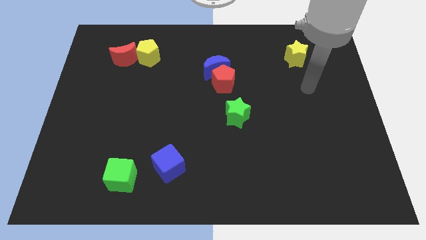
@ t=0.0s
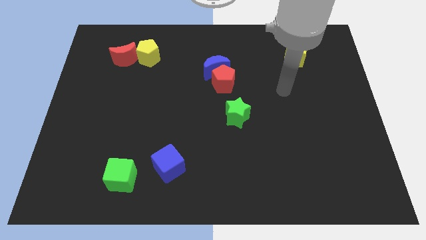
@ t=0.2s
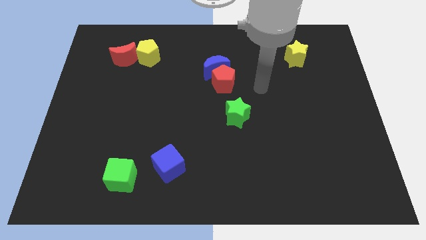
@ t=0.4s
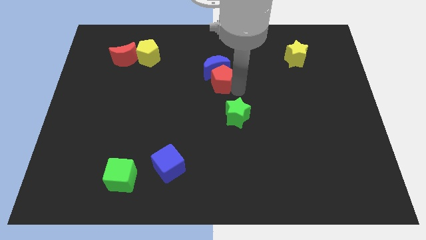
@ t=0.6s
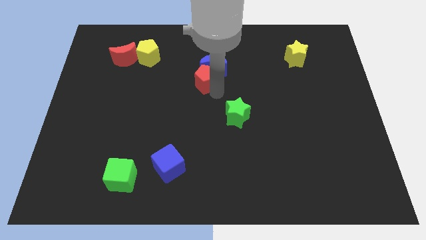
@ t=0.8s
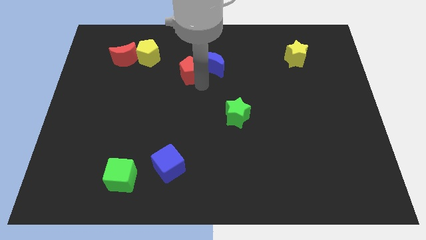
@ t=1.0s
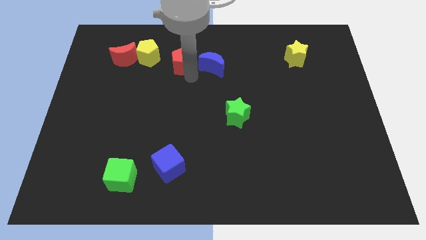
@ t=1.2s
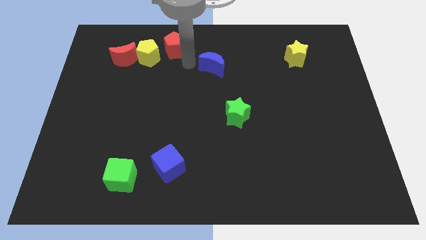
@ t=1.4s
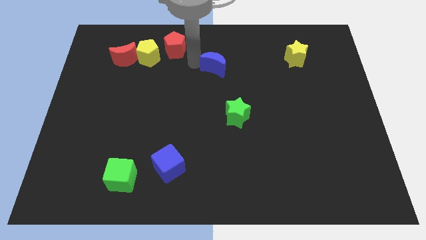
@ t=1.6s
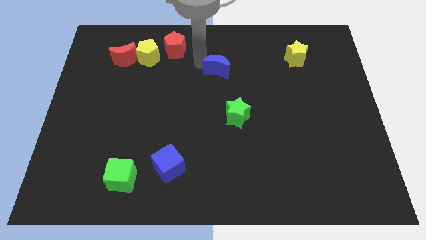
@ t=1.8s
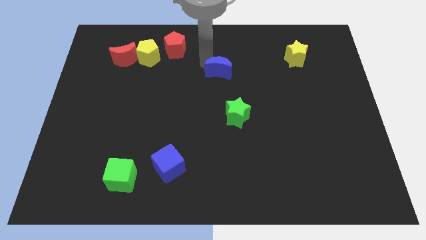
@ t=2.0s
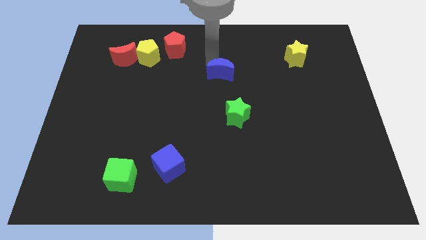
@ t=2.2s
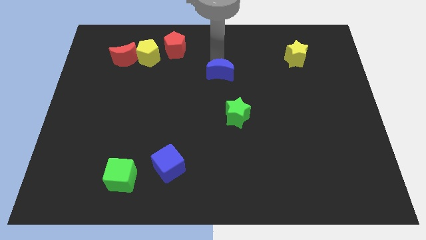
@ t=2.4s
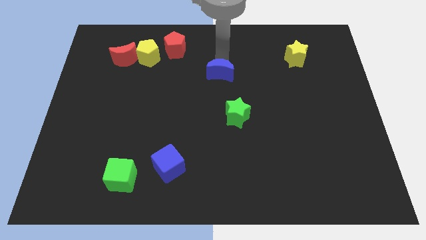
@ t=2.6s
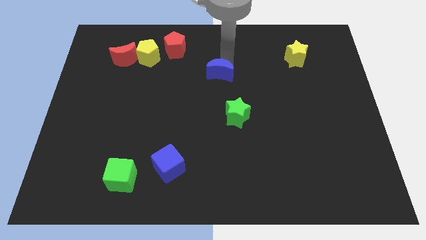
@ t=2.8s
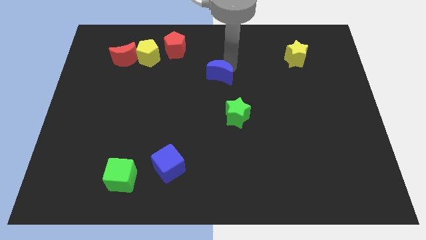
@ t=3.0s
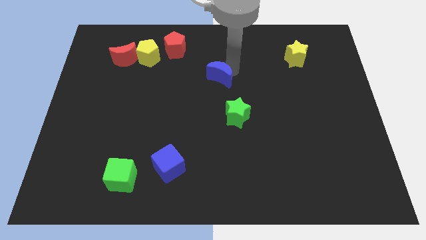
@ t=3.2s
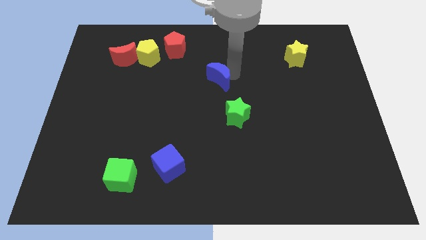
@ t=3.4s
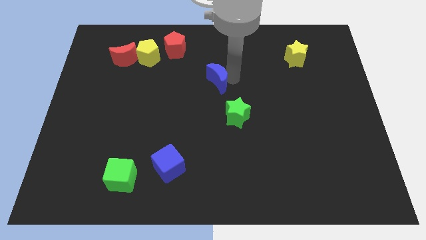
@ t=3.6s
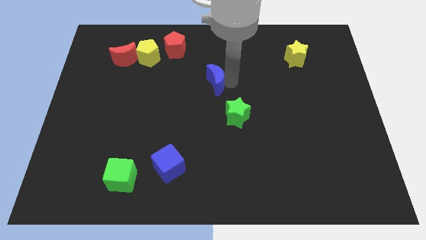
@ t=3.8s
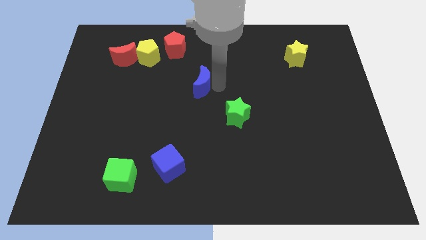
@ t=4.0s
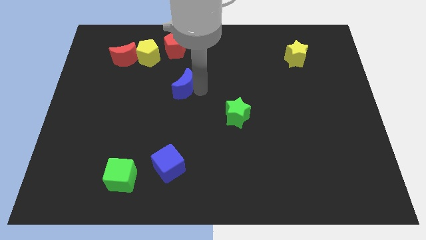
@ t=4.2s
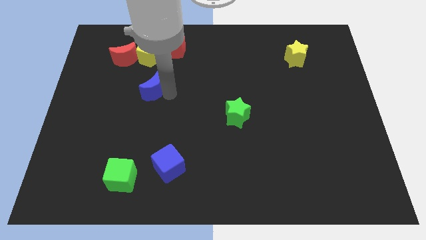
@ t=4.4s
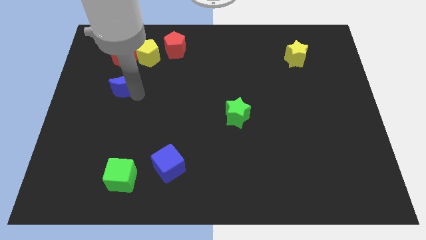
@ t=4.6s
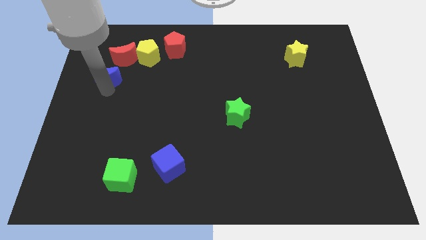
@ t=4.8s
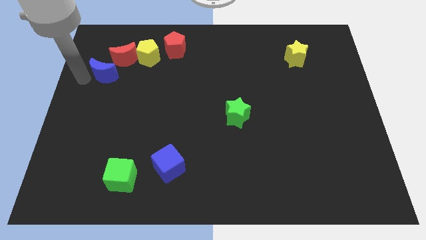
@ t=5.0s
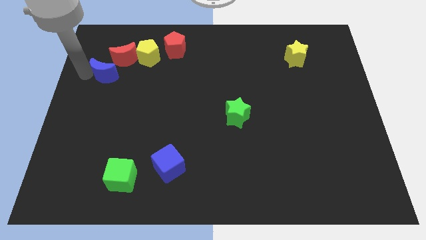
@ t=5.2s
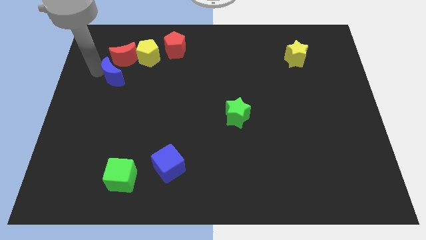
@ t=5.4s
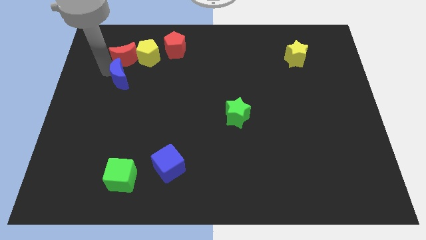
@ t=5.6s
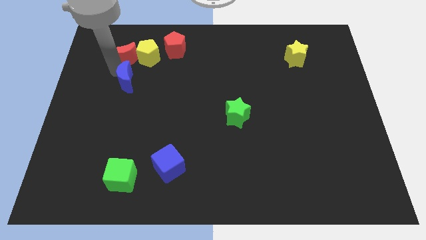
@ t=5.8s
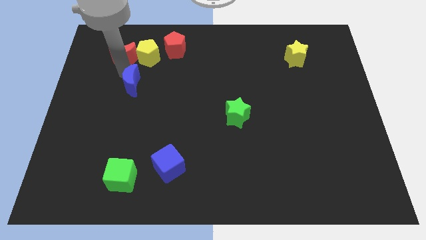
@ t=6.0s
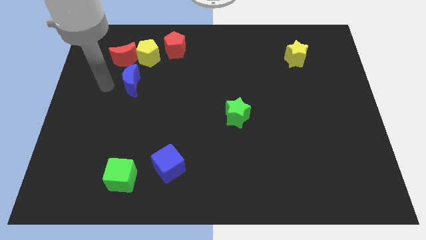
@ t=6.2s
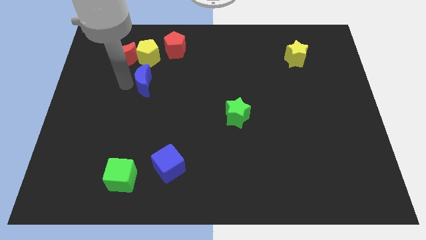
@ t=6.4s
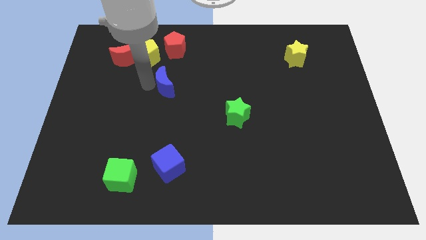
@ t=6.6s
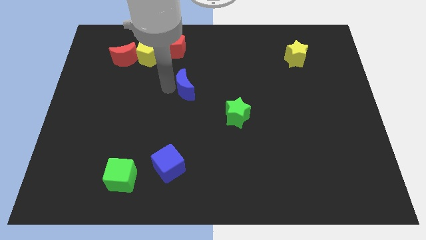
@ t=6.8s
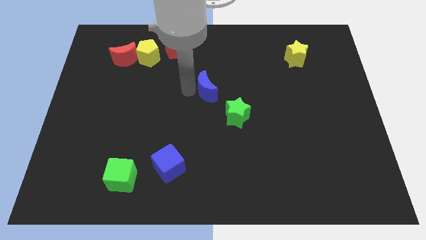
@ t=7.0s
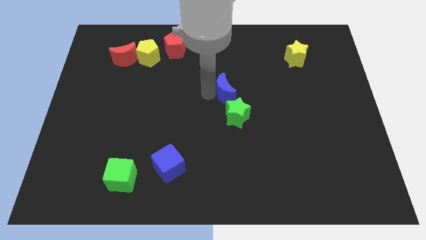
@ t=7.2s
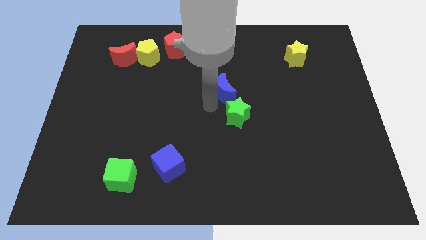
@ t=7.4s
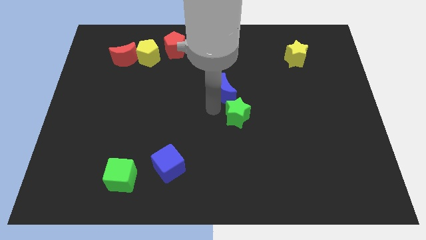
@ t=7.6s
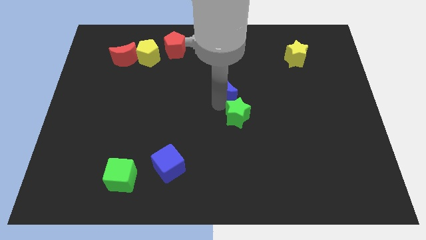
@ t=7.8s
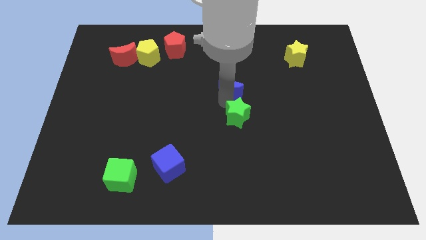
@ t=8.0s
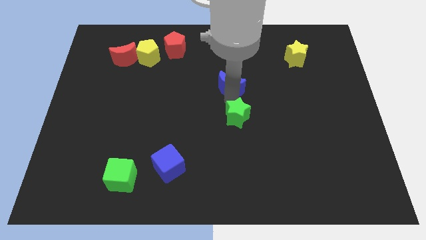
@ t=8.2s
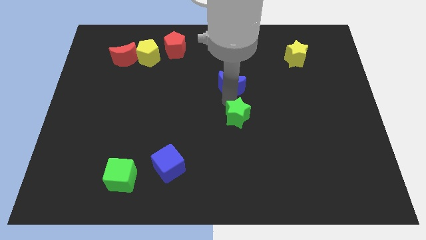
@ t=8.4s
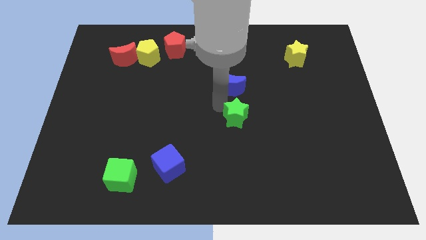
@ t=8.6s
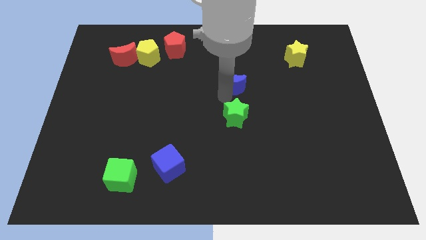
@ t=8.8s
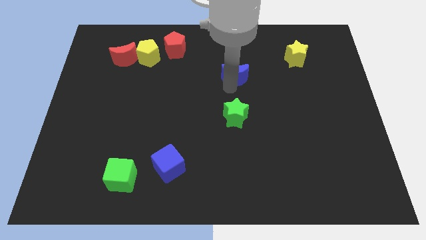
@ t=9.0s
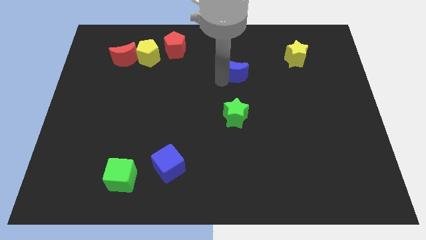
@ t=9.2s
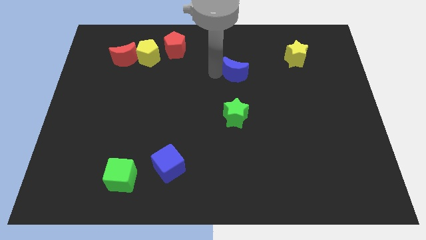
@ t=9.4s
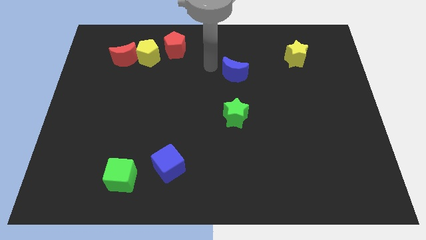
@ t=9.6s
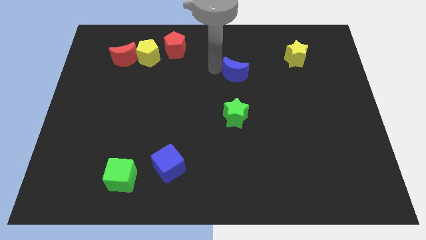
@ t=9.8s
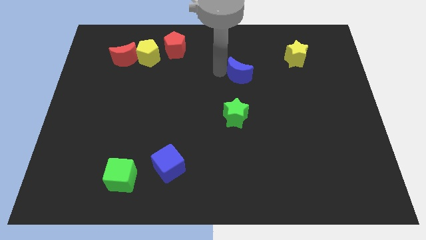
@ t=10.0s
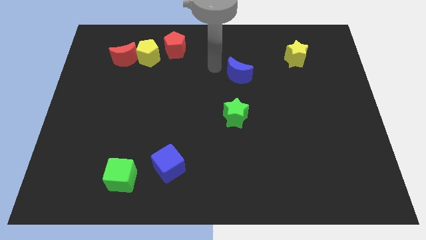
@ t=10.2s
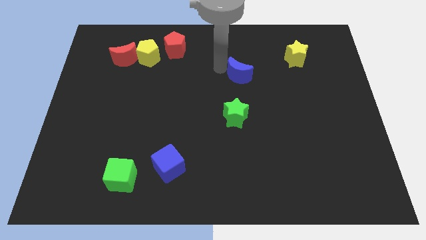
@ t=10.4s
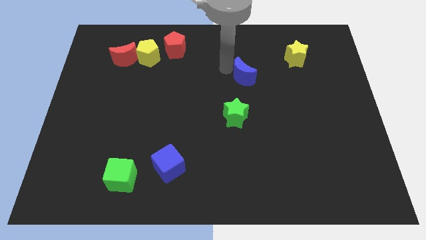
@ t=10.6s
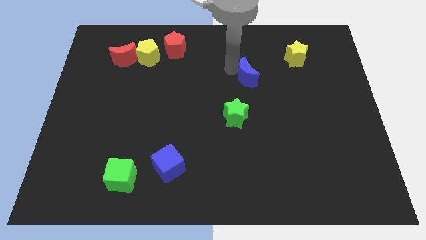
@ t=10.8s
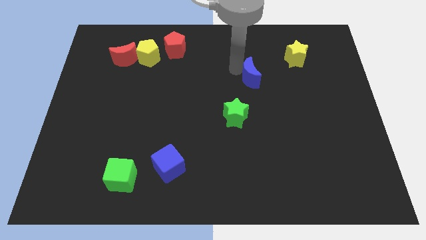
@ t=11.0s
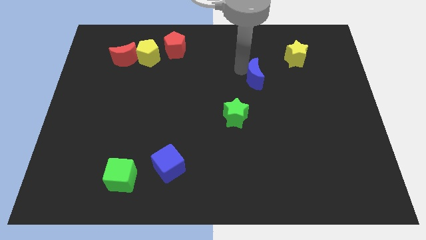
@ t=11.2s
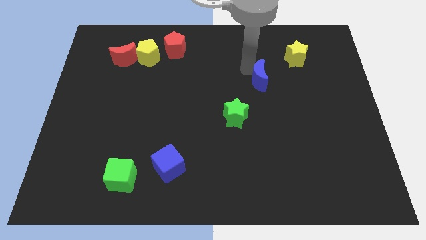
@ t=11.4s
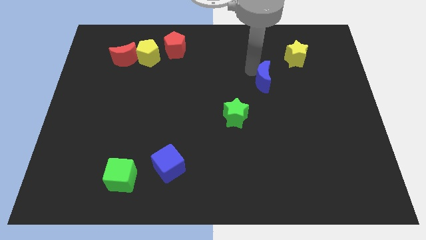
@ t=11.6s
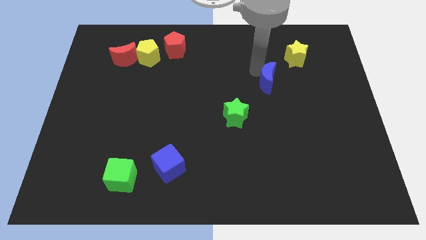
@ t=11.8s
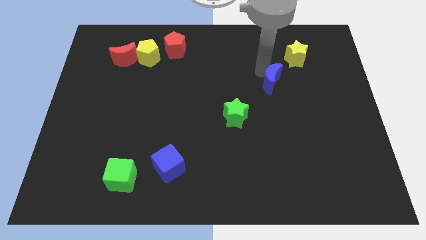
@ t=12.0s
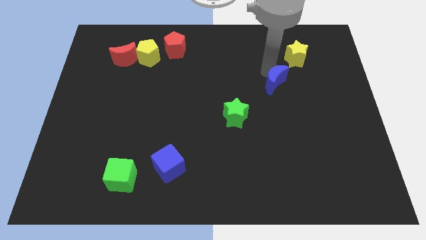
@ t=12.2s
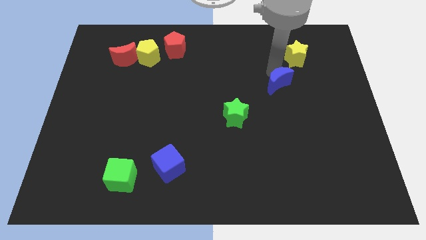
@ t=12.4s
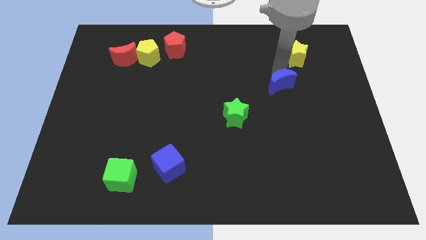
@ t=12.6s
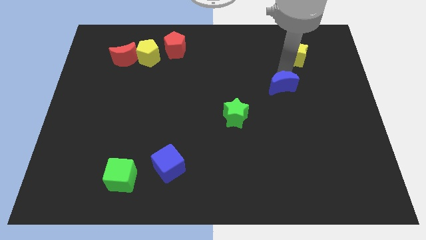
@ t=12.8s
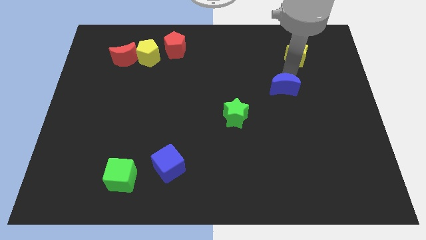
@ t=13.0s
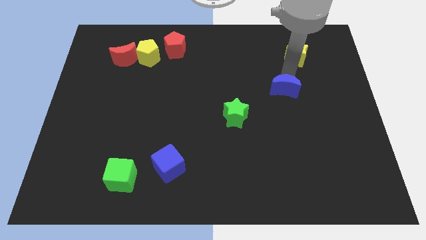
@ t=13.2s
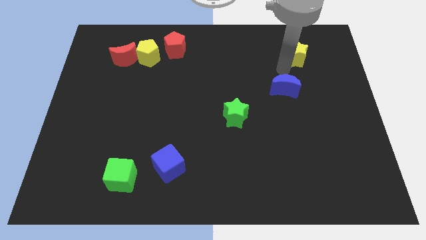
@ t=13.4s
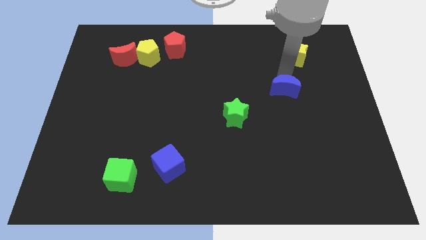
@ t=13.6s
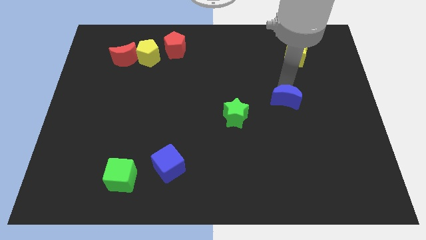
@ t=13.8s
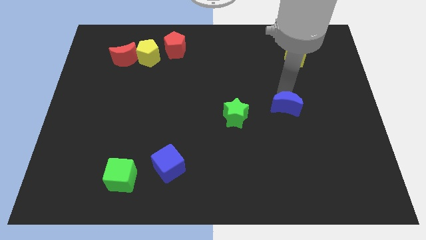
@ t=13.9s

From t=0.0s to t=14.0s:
push the blue moon down and to the right diagonally

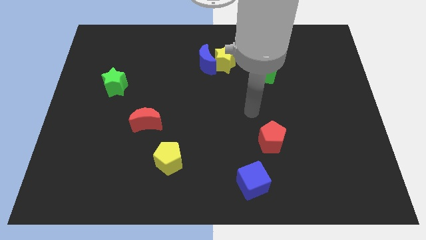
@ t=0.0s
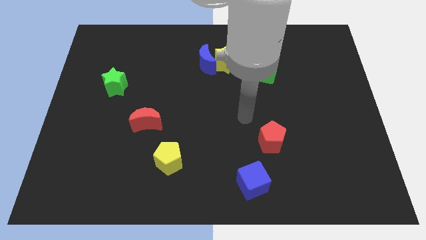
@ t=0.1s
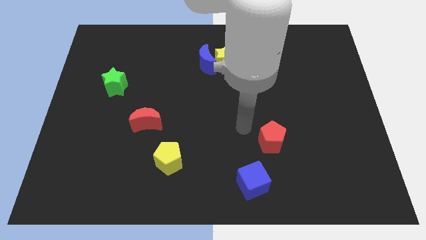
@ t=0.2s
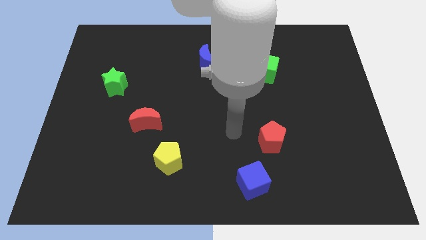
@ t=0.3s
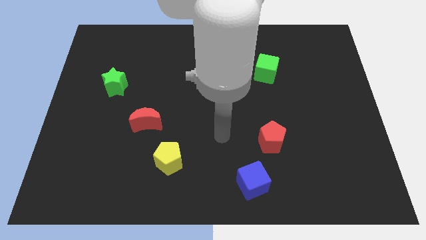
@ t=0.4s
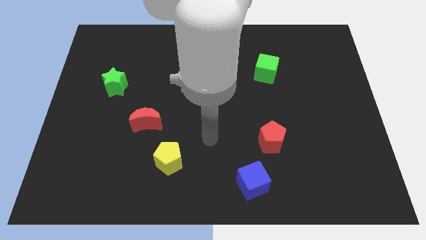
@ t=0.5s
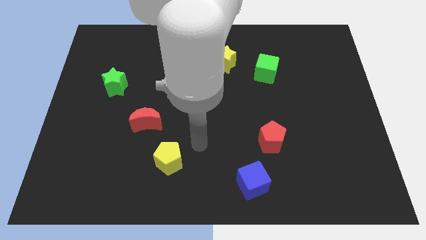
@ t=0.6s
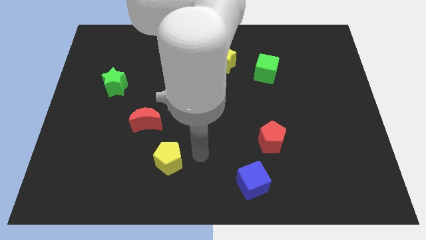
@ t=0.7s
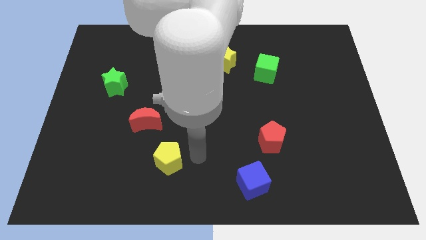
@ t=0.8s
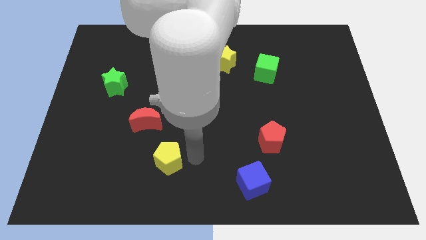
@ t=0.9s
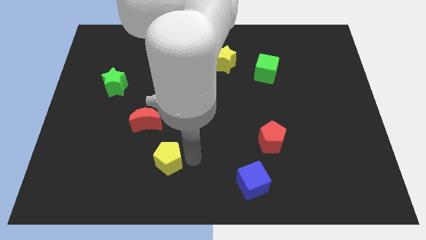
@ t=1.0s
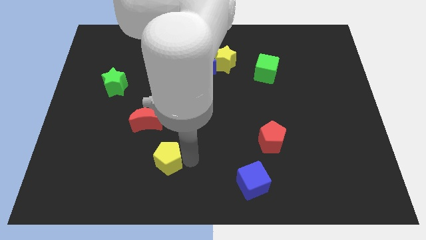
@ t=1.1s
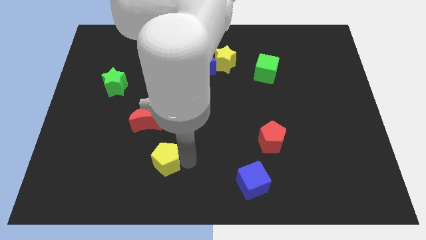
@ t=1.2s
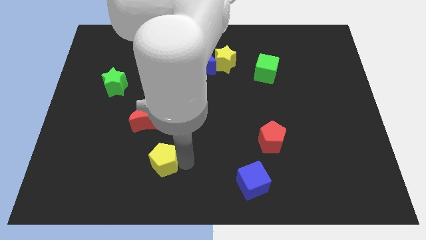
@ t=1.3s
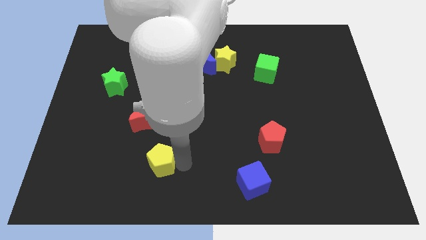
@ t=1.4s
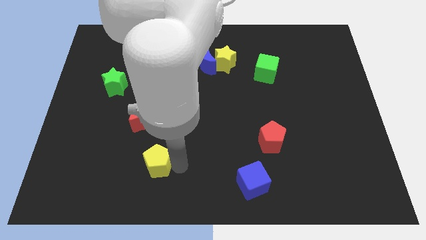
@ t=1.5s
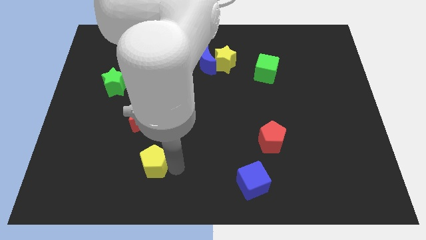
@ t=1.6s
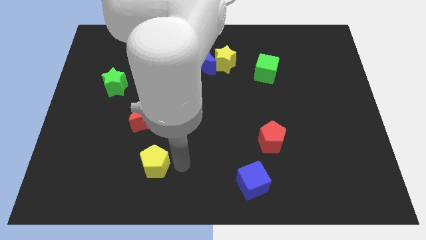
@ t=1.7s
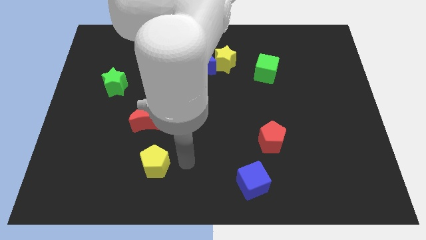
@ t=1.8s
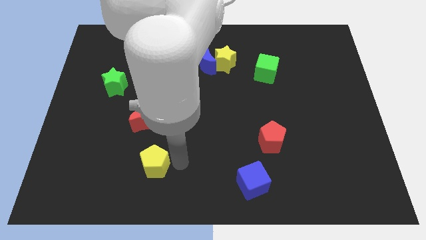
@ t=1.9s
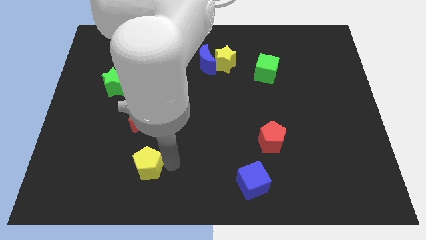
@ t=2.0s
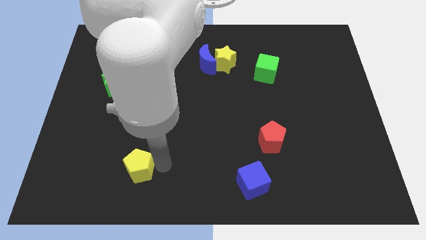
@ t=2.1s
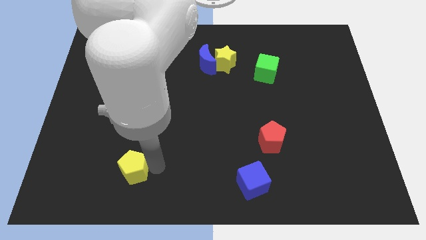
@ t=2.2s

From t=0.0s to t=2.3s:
push the yellow pentagon left a little
